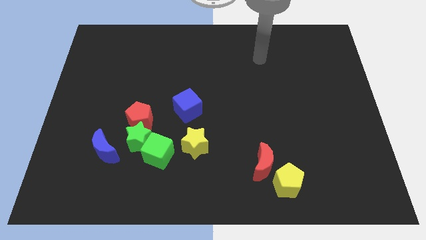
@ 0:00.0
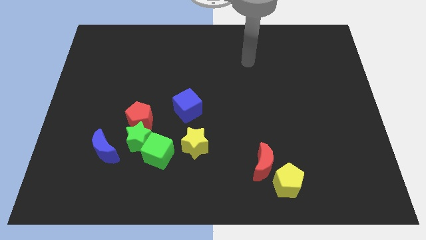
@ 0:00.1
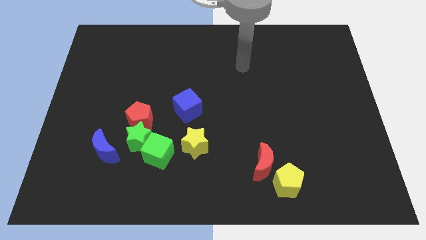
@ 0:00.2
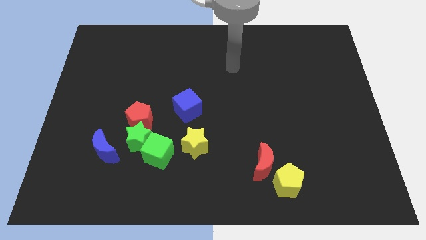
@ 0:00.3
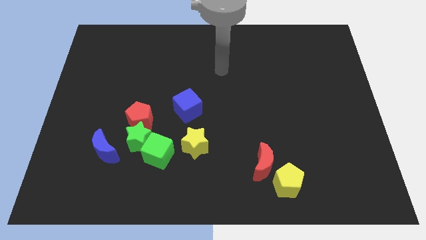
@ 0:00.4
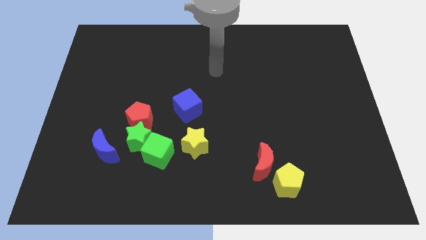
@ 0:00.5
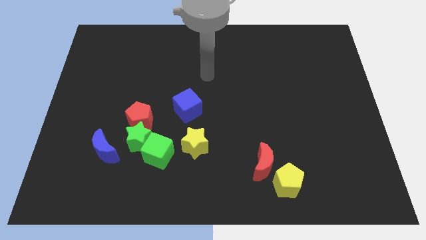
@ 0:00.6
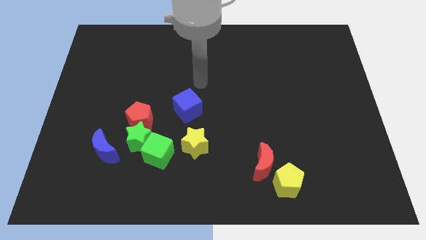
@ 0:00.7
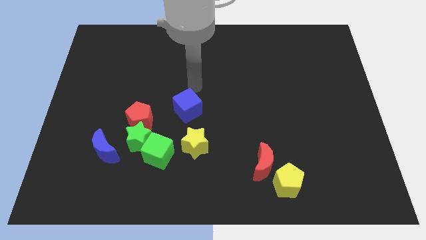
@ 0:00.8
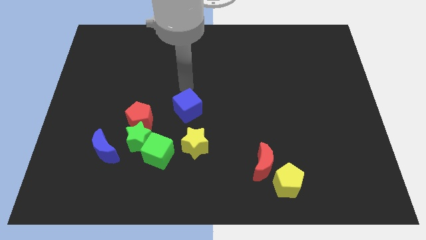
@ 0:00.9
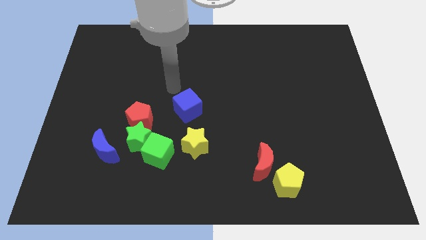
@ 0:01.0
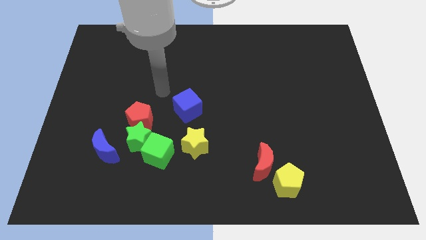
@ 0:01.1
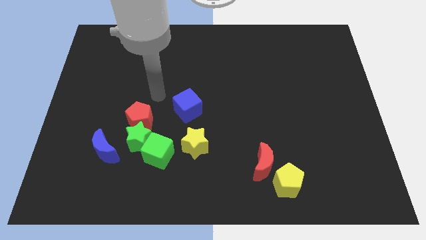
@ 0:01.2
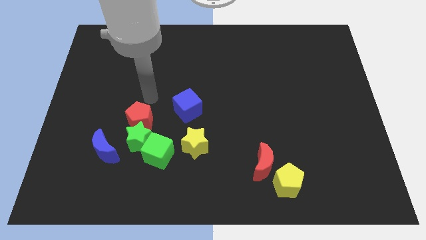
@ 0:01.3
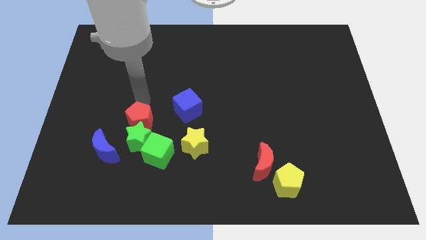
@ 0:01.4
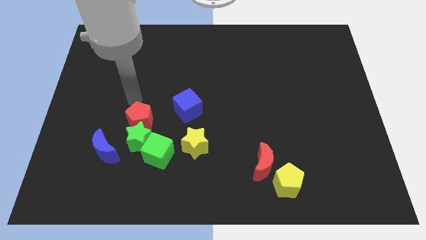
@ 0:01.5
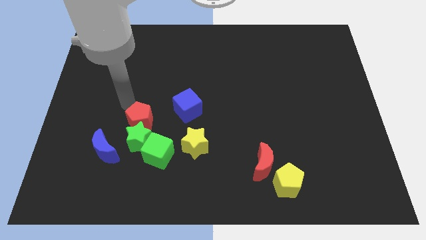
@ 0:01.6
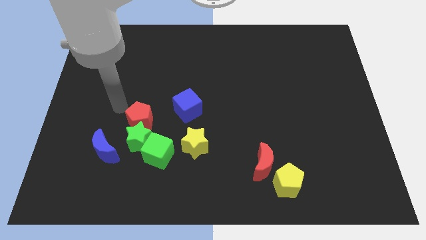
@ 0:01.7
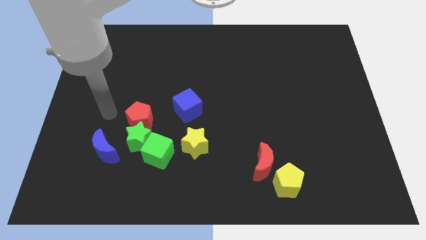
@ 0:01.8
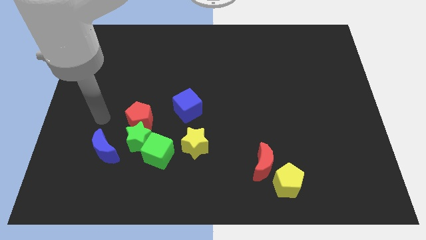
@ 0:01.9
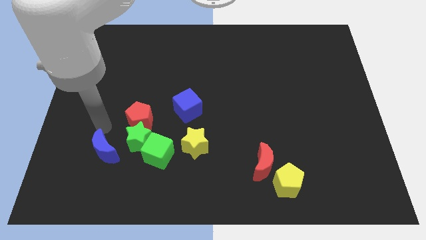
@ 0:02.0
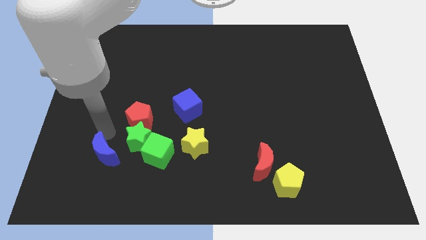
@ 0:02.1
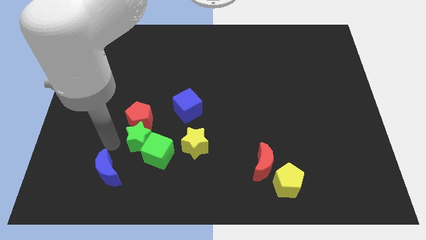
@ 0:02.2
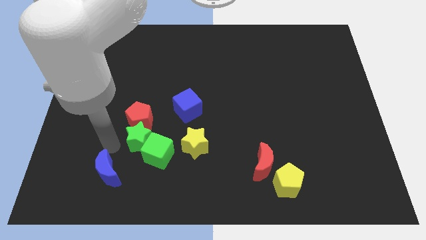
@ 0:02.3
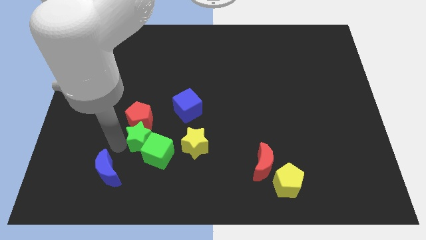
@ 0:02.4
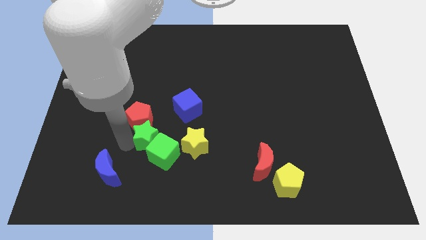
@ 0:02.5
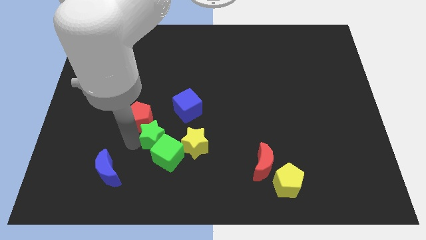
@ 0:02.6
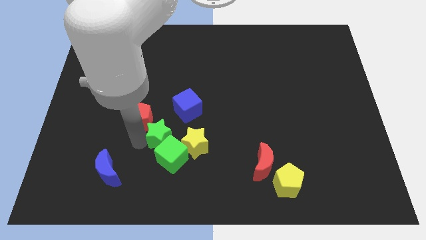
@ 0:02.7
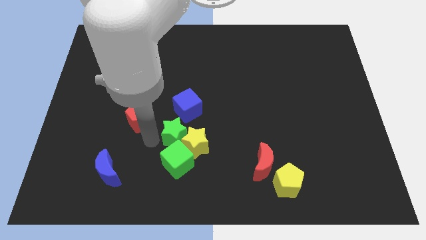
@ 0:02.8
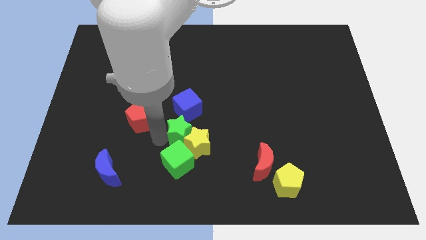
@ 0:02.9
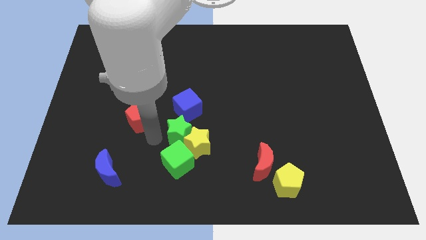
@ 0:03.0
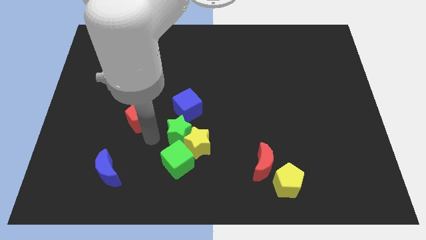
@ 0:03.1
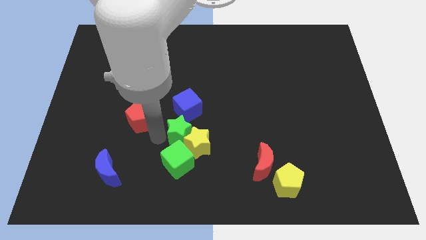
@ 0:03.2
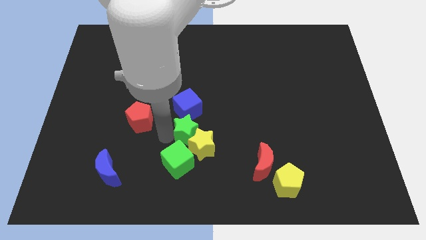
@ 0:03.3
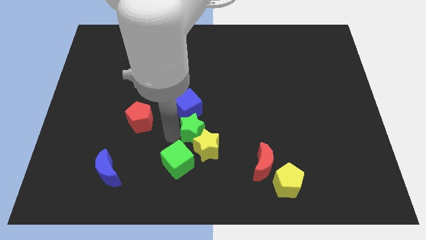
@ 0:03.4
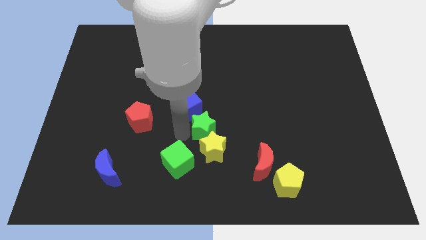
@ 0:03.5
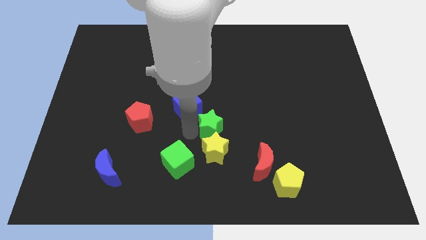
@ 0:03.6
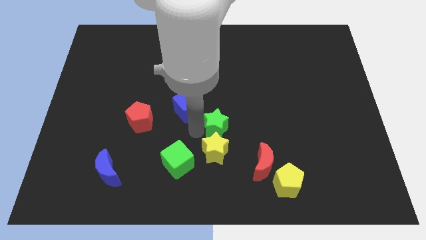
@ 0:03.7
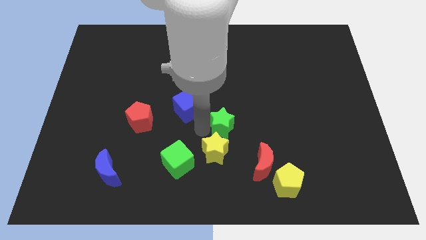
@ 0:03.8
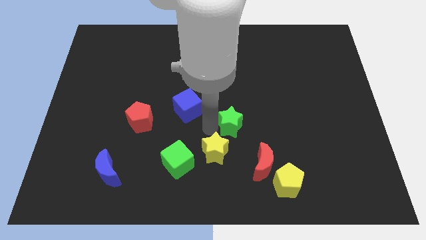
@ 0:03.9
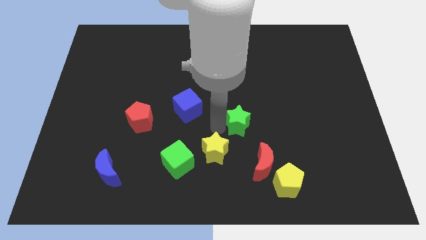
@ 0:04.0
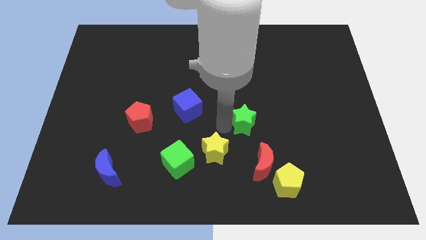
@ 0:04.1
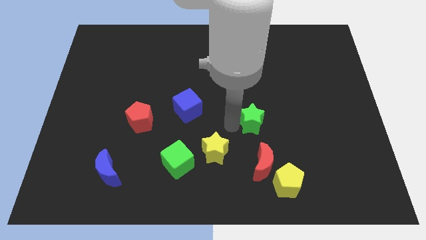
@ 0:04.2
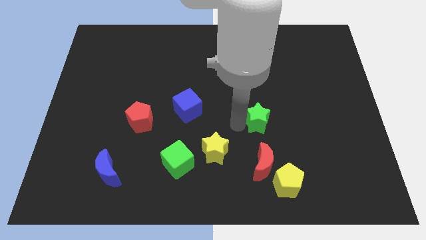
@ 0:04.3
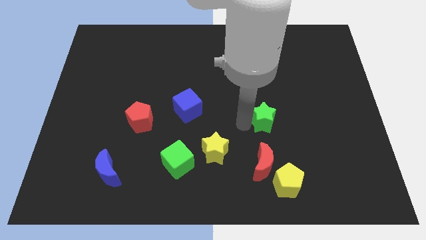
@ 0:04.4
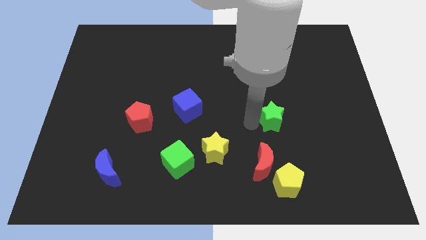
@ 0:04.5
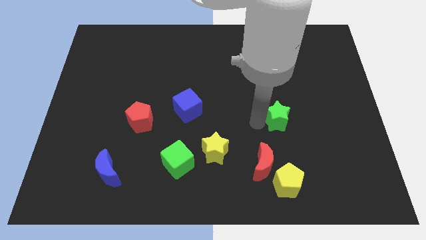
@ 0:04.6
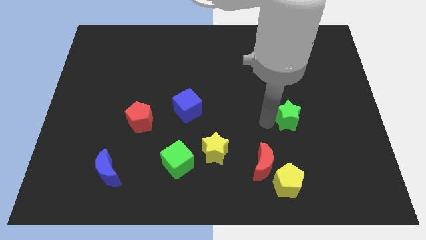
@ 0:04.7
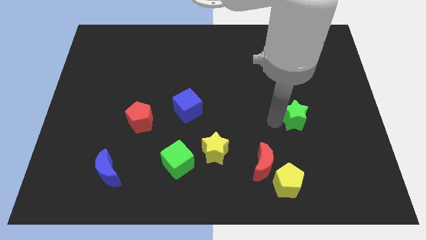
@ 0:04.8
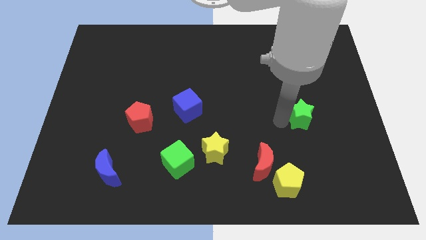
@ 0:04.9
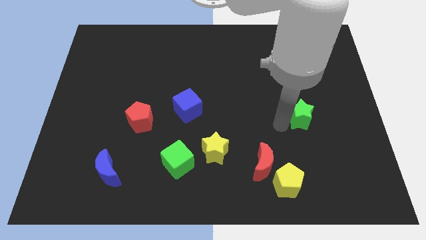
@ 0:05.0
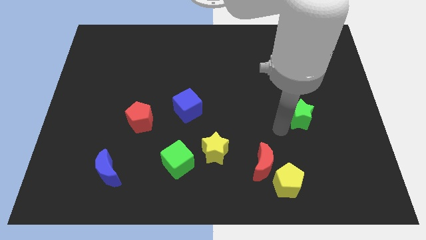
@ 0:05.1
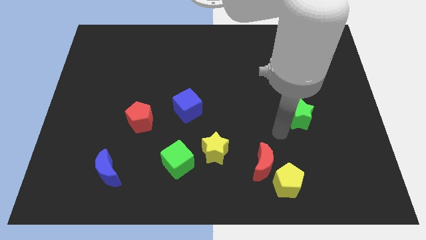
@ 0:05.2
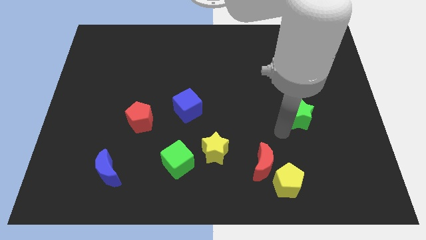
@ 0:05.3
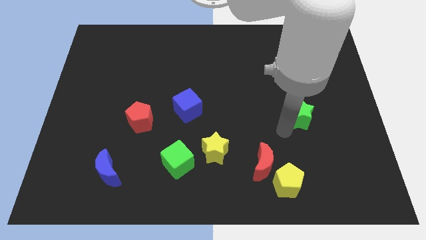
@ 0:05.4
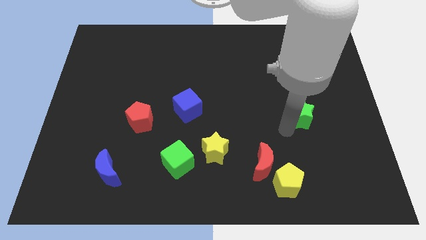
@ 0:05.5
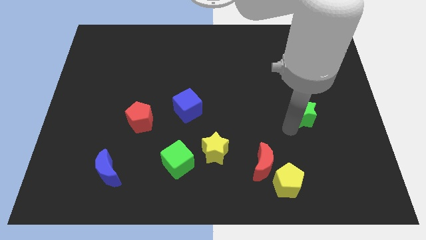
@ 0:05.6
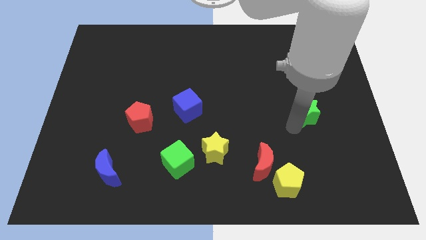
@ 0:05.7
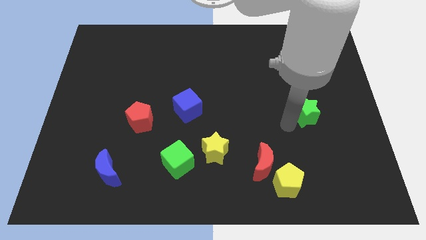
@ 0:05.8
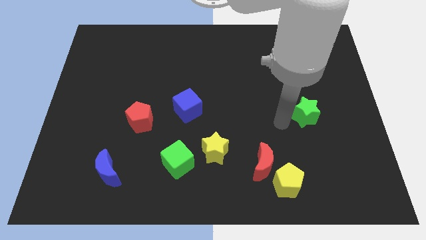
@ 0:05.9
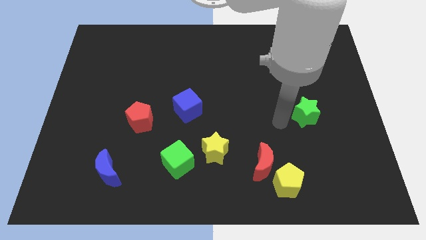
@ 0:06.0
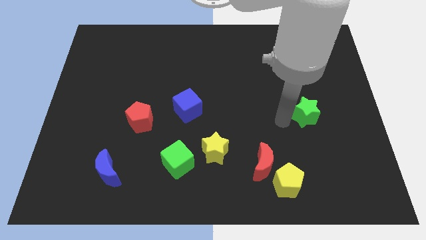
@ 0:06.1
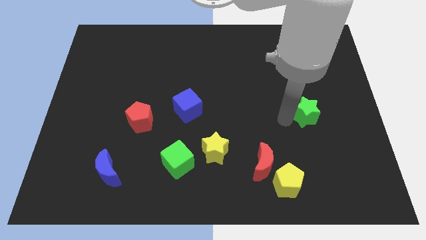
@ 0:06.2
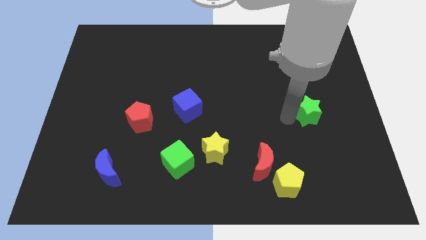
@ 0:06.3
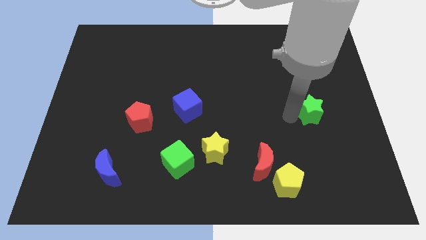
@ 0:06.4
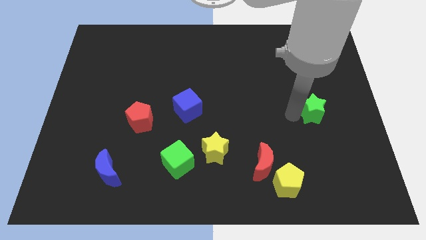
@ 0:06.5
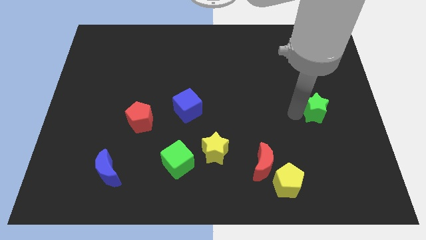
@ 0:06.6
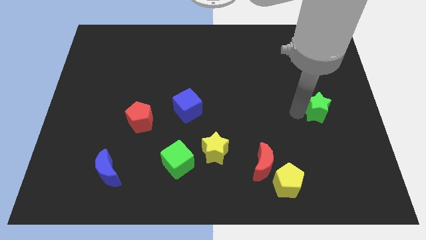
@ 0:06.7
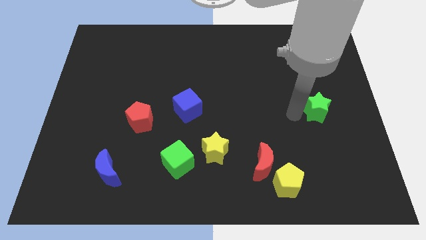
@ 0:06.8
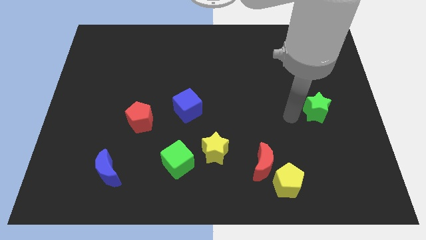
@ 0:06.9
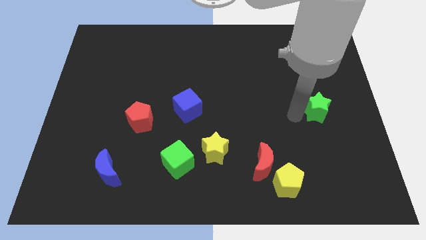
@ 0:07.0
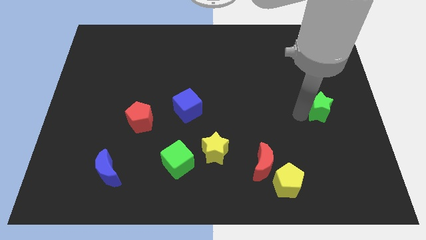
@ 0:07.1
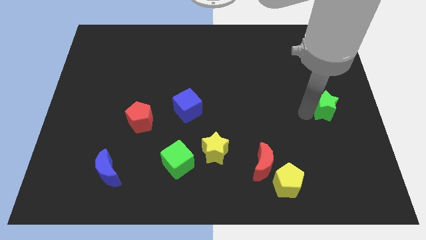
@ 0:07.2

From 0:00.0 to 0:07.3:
slide the green star to the center right
